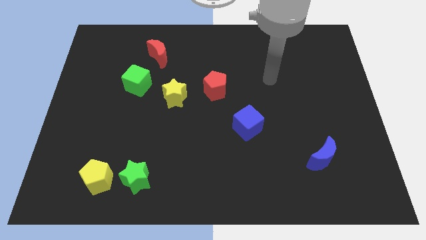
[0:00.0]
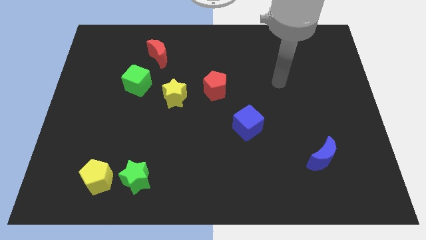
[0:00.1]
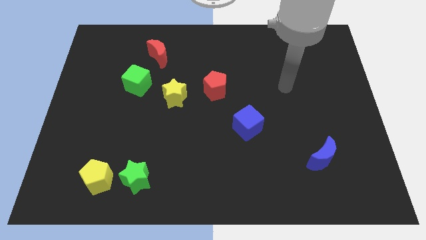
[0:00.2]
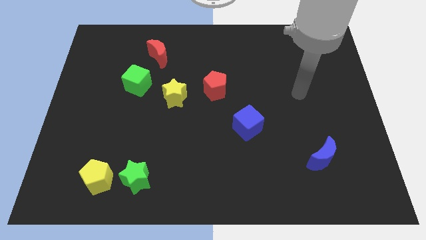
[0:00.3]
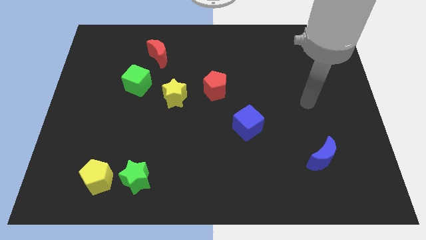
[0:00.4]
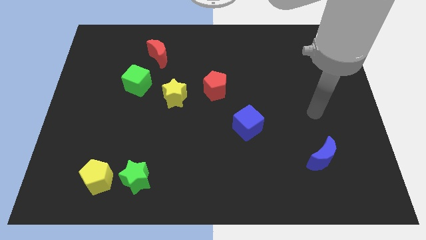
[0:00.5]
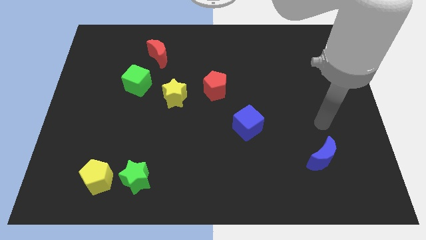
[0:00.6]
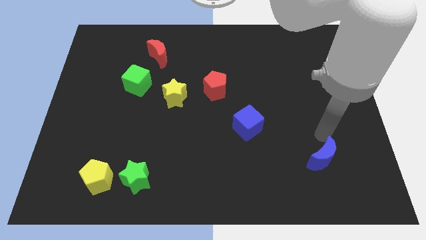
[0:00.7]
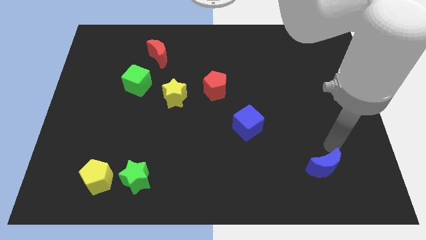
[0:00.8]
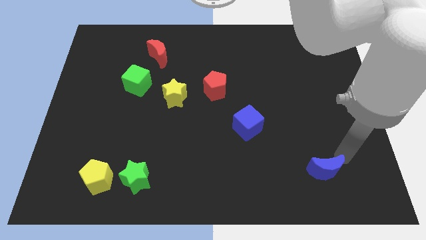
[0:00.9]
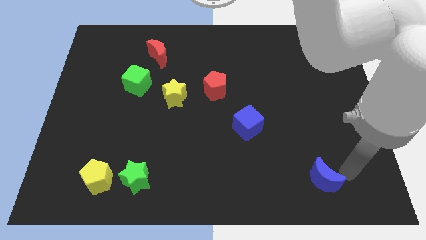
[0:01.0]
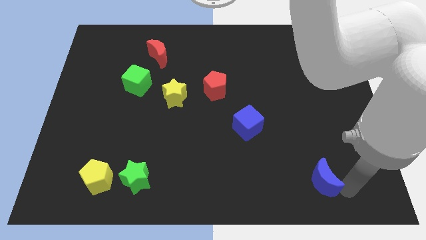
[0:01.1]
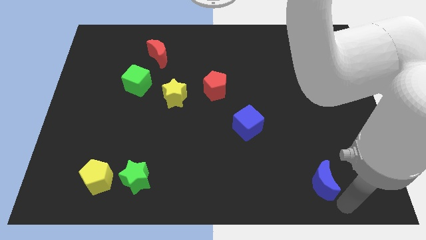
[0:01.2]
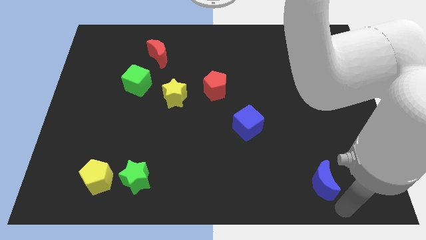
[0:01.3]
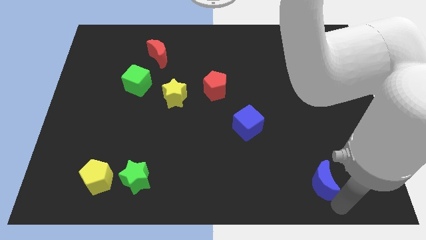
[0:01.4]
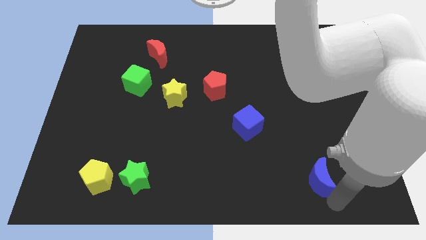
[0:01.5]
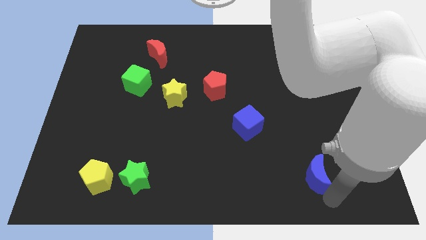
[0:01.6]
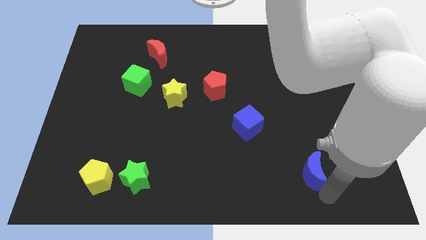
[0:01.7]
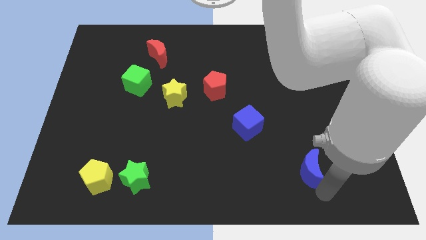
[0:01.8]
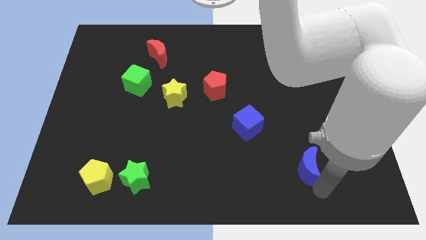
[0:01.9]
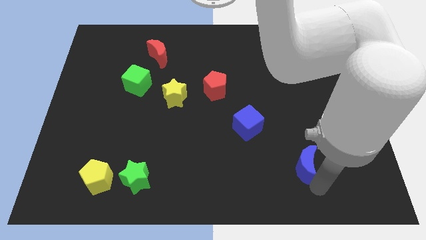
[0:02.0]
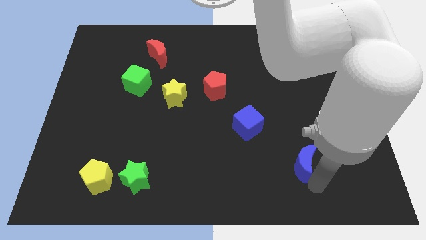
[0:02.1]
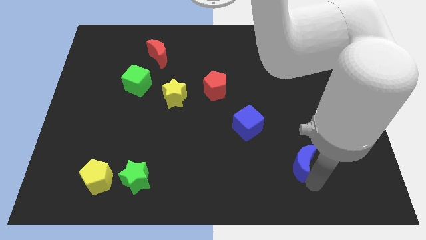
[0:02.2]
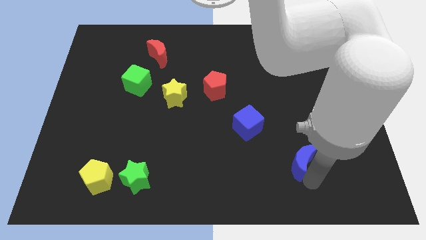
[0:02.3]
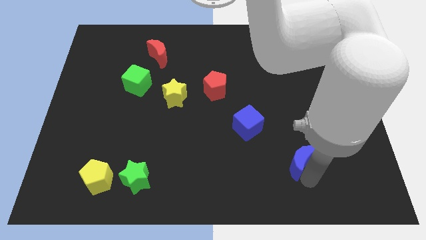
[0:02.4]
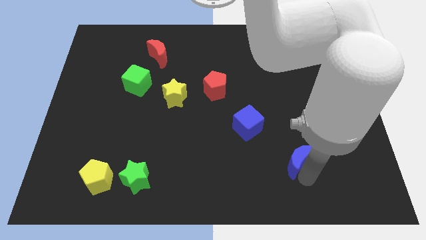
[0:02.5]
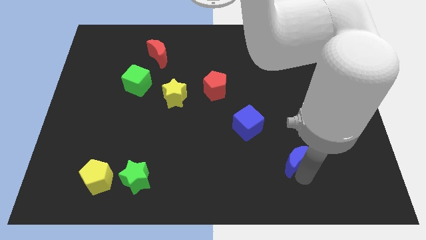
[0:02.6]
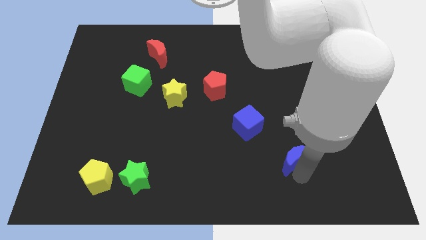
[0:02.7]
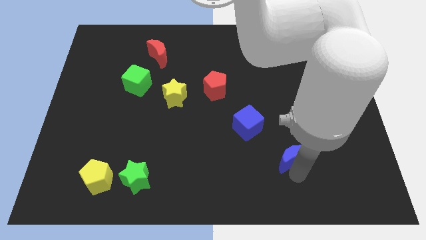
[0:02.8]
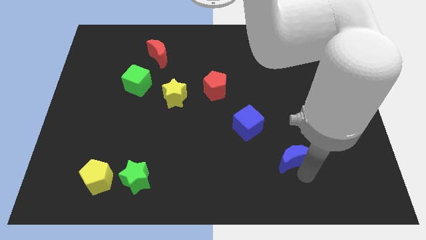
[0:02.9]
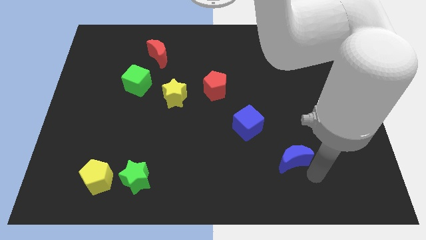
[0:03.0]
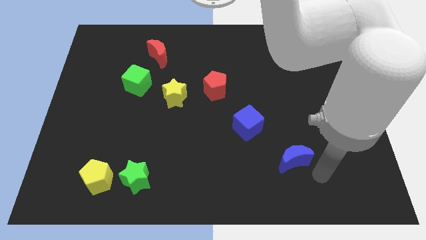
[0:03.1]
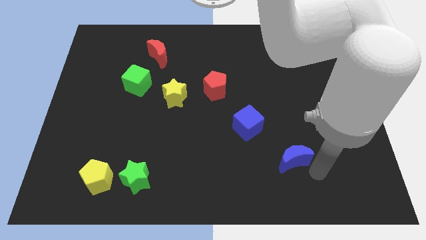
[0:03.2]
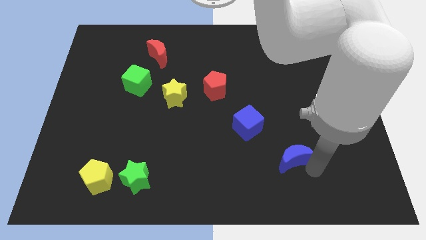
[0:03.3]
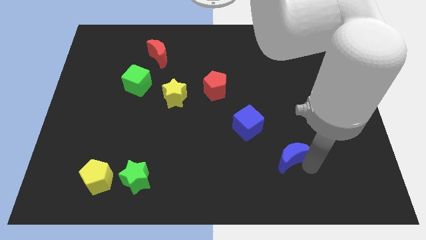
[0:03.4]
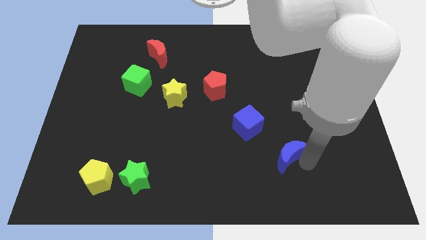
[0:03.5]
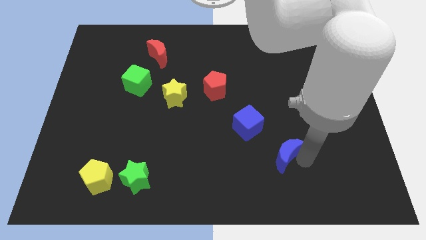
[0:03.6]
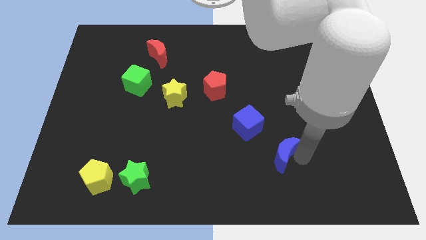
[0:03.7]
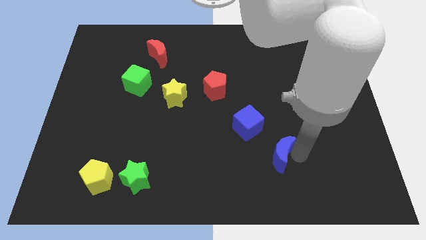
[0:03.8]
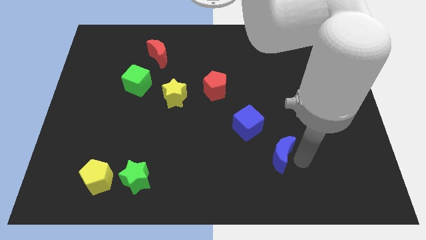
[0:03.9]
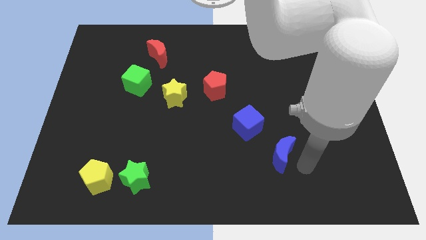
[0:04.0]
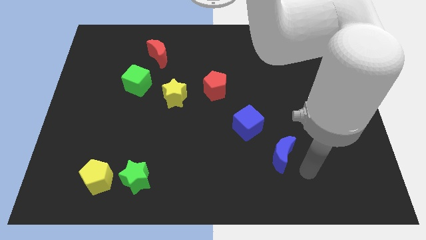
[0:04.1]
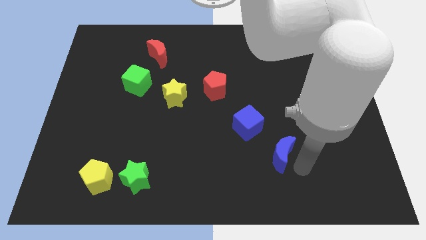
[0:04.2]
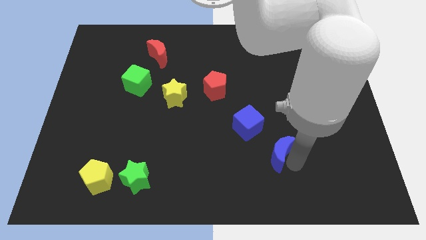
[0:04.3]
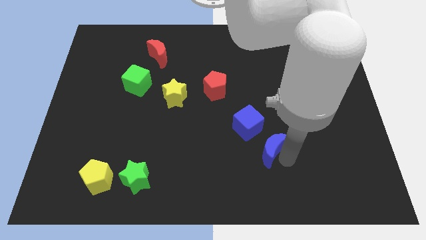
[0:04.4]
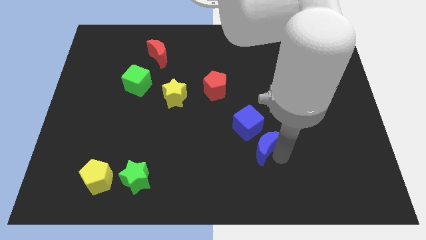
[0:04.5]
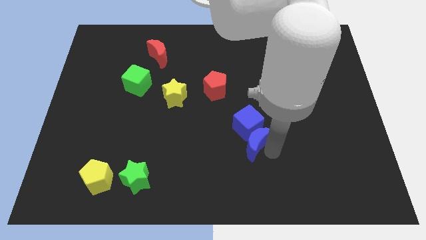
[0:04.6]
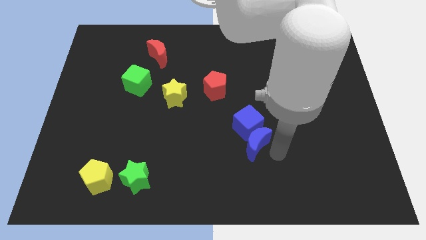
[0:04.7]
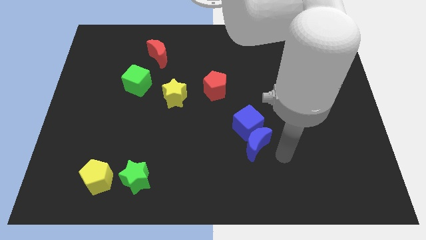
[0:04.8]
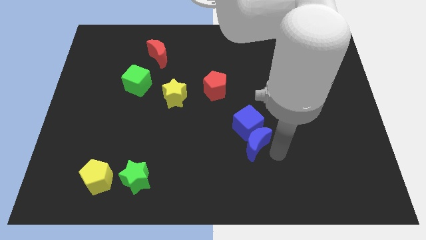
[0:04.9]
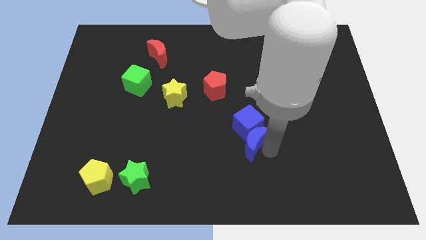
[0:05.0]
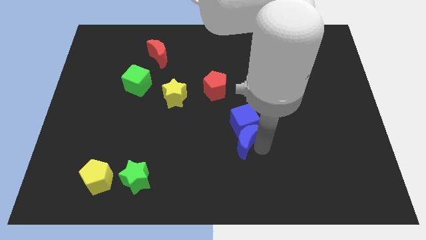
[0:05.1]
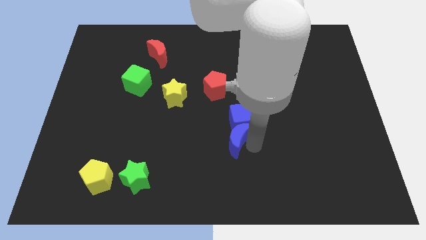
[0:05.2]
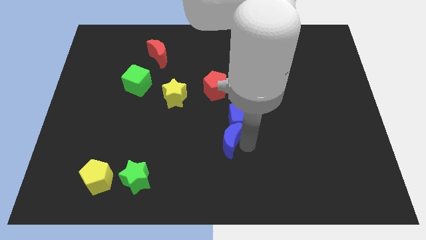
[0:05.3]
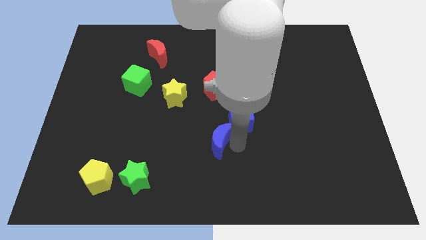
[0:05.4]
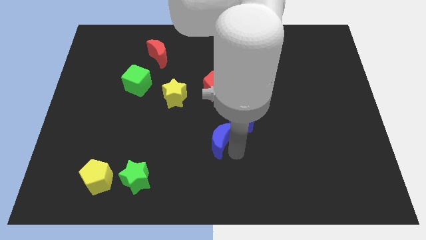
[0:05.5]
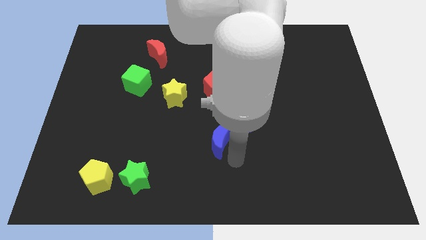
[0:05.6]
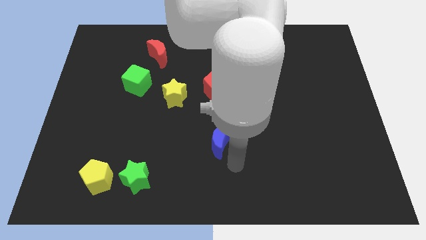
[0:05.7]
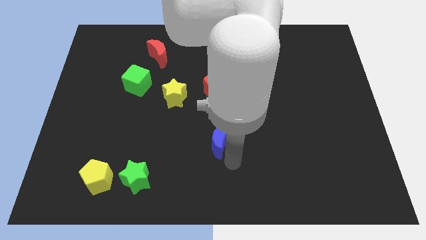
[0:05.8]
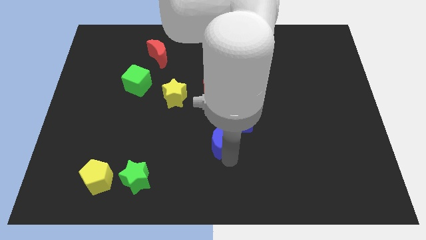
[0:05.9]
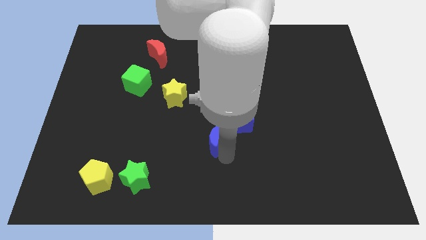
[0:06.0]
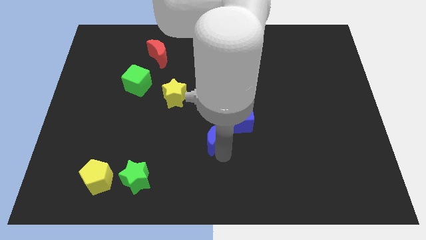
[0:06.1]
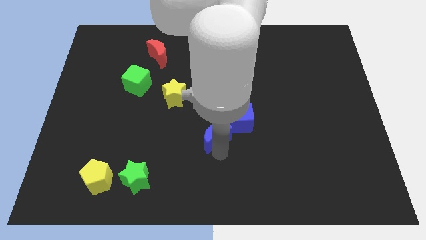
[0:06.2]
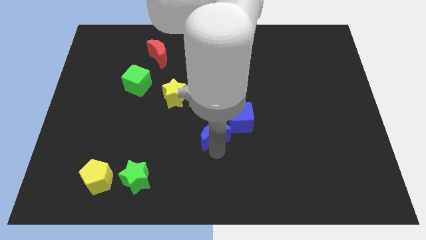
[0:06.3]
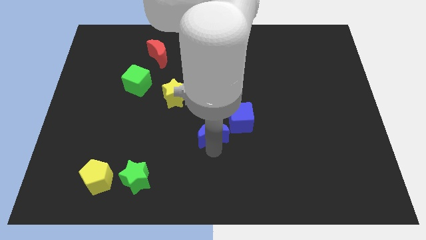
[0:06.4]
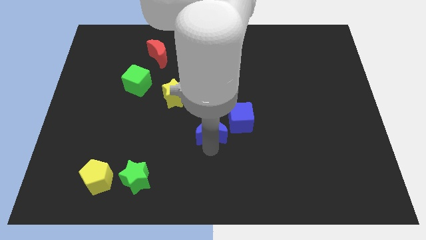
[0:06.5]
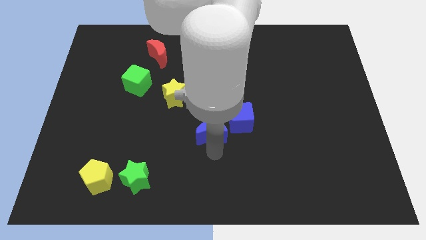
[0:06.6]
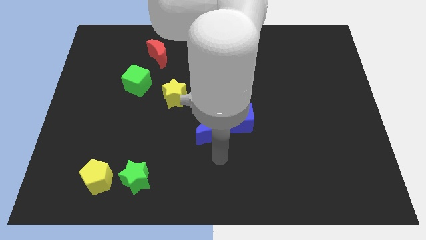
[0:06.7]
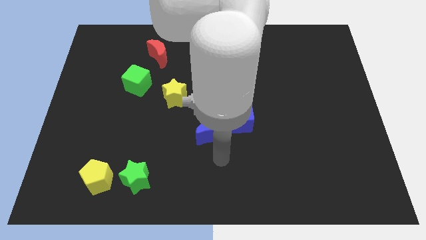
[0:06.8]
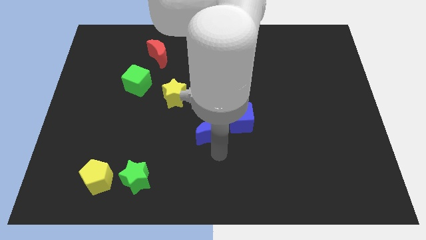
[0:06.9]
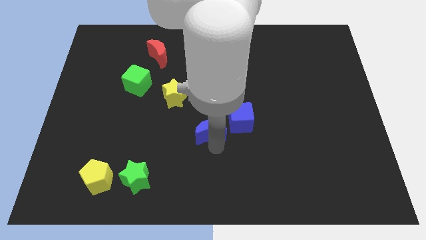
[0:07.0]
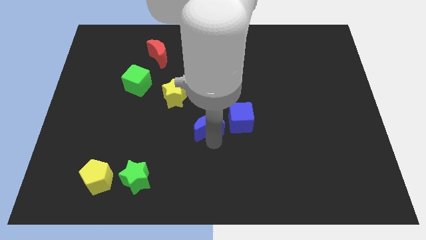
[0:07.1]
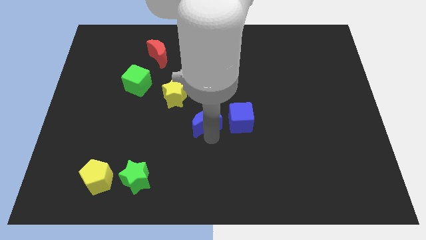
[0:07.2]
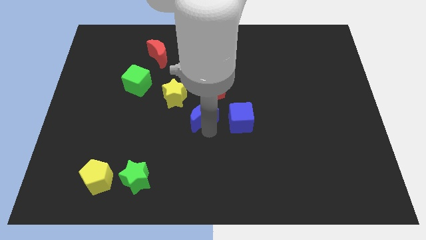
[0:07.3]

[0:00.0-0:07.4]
put the blue moon diagonally down and to the left of the red pentagon
